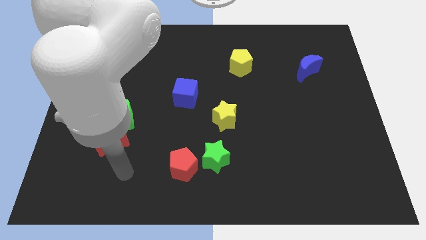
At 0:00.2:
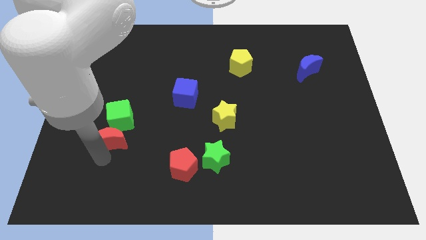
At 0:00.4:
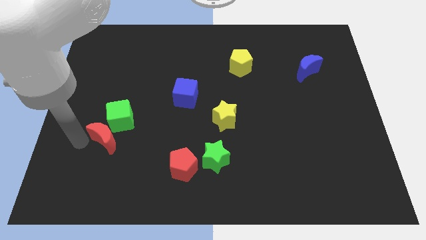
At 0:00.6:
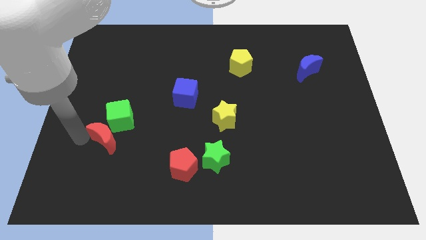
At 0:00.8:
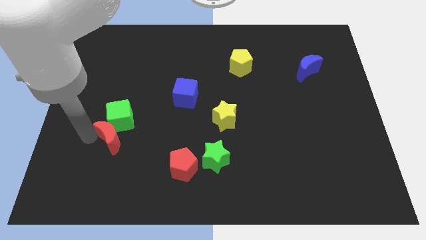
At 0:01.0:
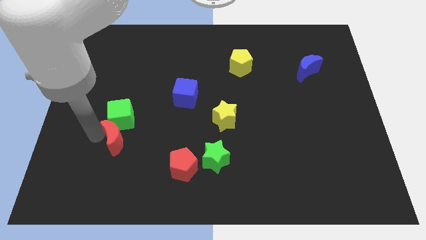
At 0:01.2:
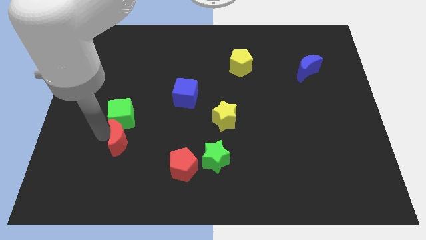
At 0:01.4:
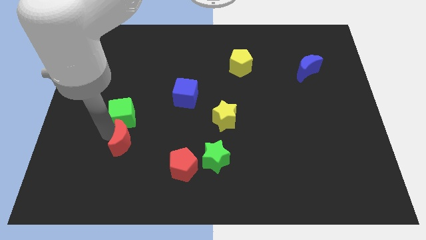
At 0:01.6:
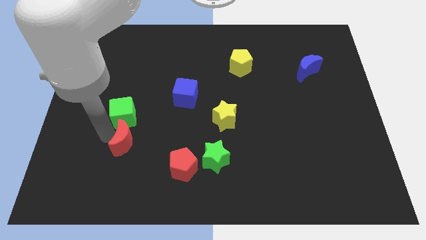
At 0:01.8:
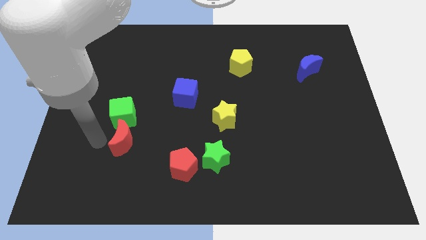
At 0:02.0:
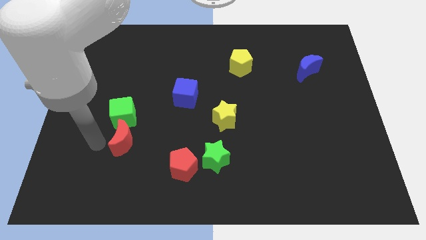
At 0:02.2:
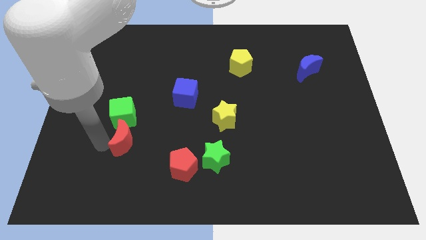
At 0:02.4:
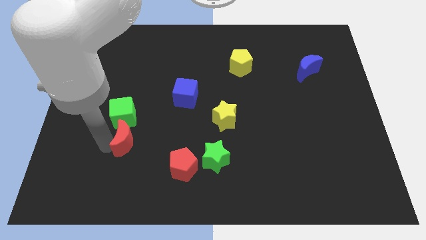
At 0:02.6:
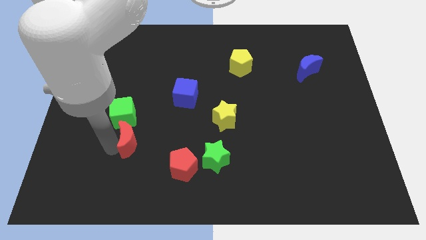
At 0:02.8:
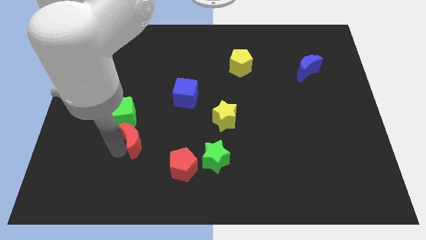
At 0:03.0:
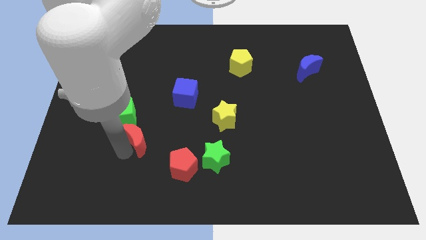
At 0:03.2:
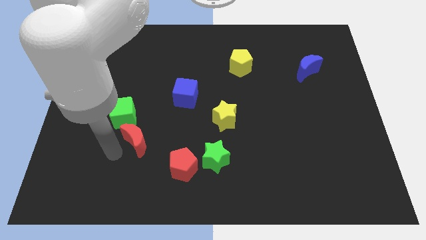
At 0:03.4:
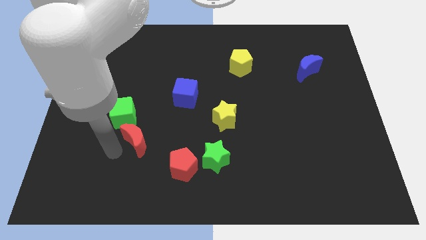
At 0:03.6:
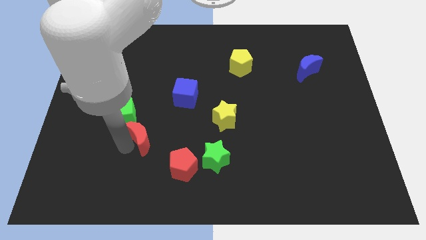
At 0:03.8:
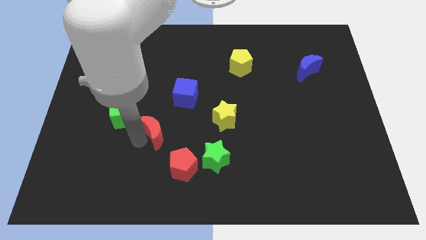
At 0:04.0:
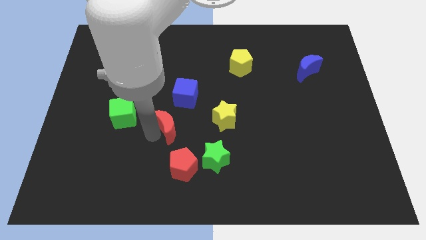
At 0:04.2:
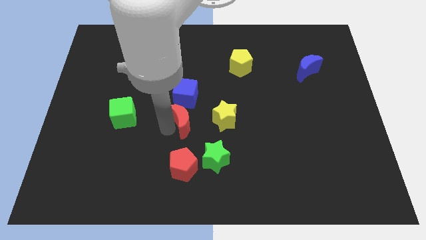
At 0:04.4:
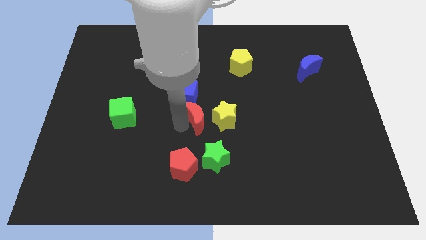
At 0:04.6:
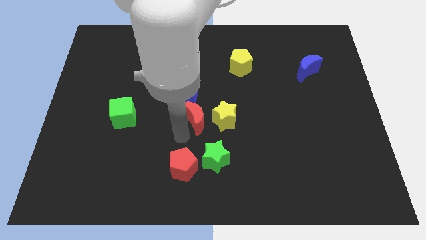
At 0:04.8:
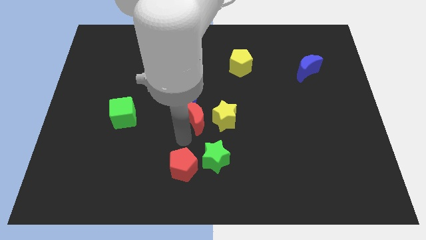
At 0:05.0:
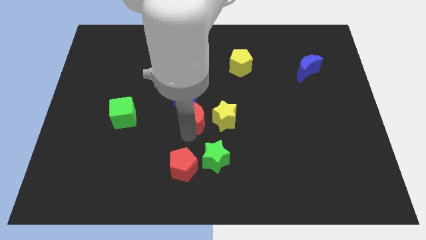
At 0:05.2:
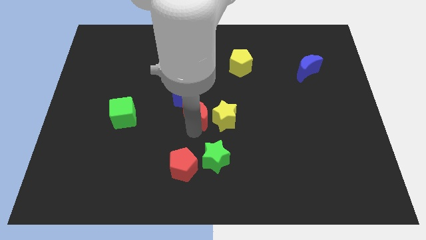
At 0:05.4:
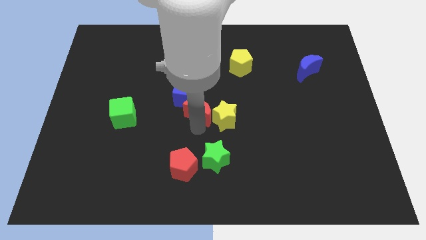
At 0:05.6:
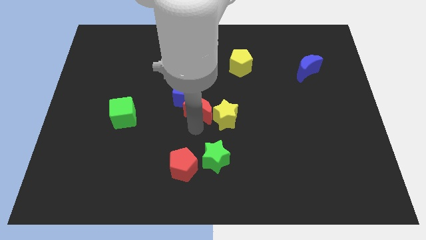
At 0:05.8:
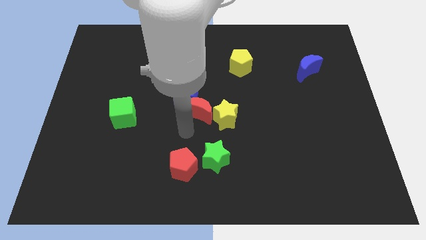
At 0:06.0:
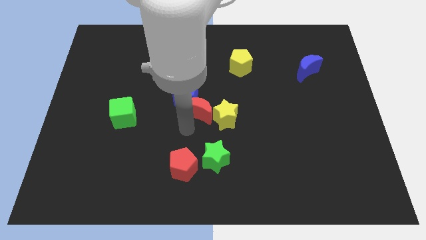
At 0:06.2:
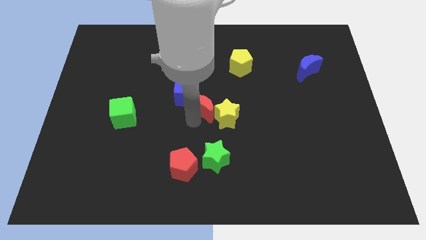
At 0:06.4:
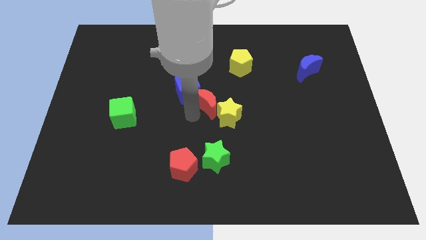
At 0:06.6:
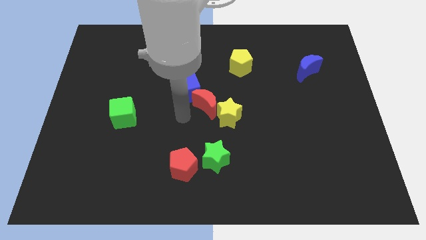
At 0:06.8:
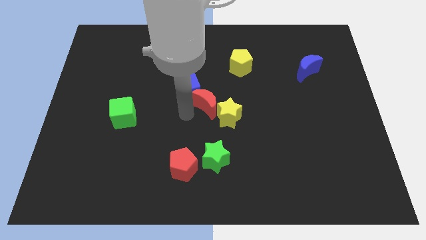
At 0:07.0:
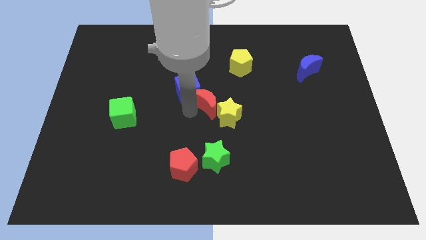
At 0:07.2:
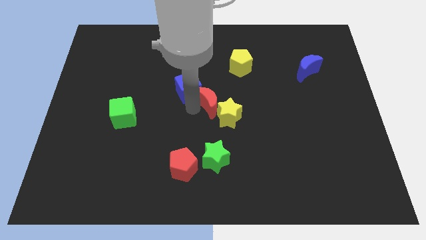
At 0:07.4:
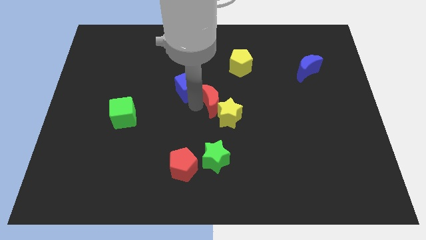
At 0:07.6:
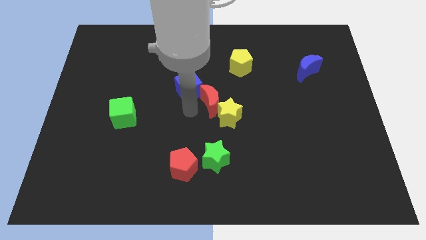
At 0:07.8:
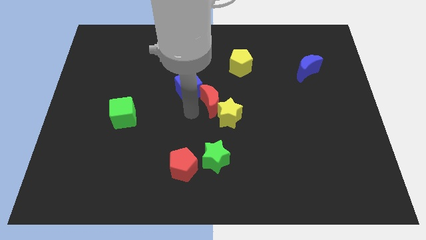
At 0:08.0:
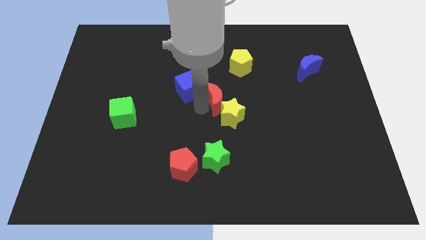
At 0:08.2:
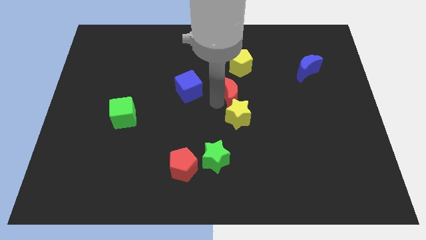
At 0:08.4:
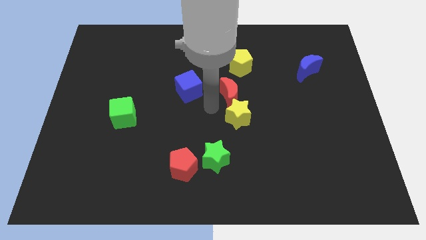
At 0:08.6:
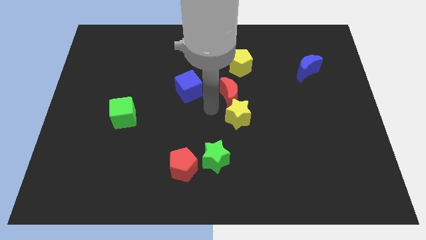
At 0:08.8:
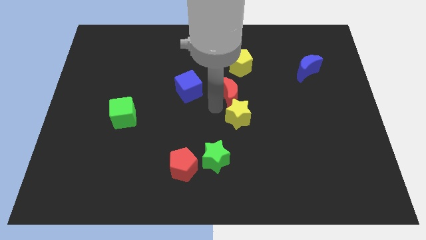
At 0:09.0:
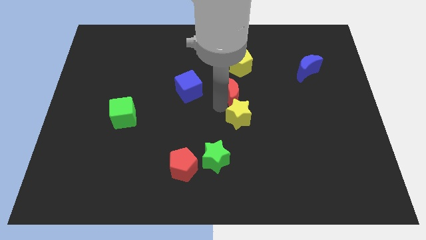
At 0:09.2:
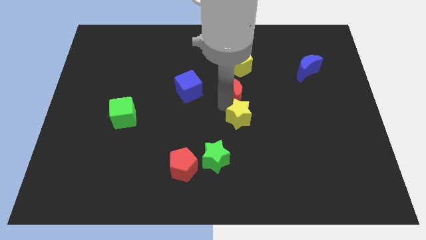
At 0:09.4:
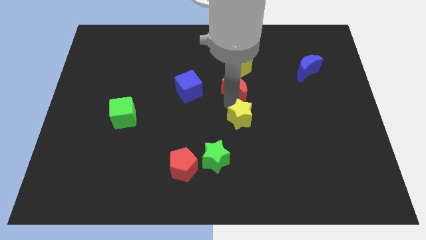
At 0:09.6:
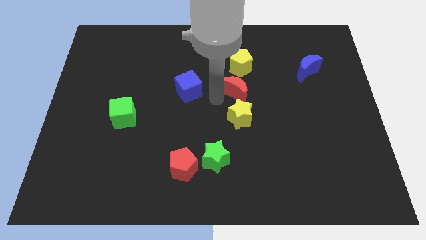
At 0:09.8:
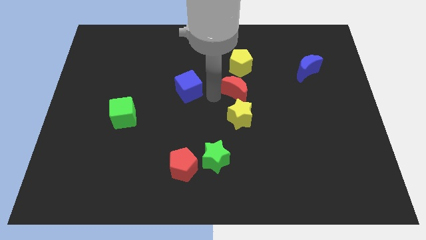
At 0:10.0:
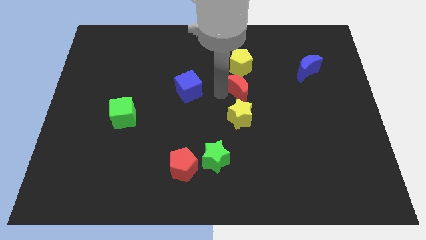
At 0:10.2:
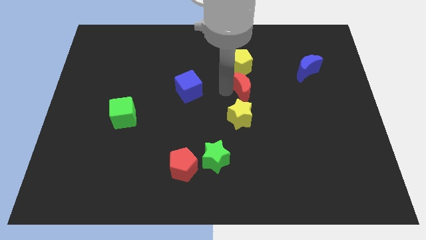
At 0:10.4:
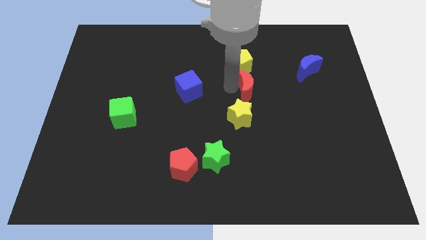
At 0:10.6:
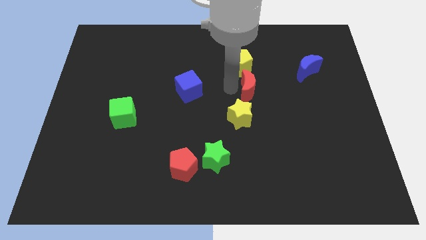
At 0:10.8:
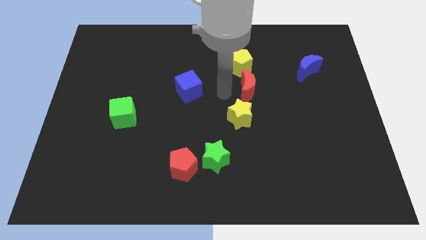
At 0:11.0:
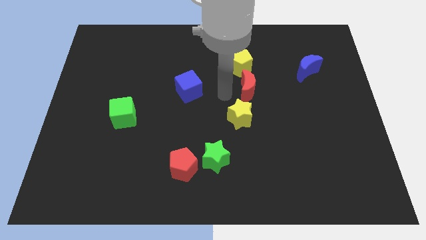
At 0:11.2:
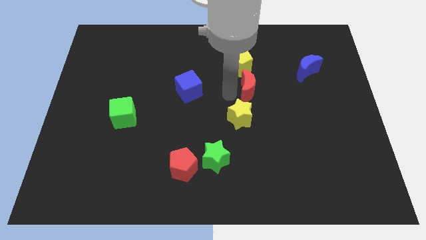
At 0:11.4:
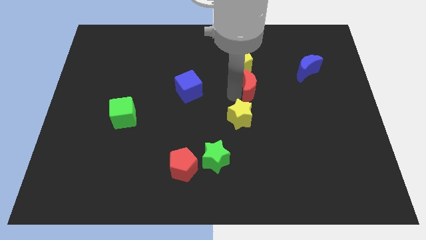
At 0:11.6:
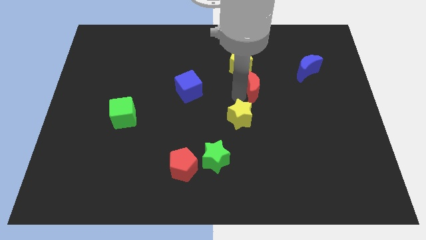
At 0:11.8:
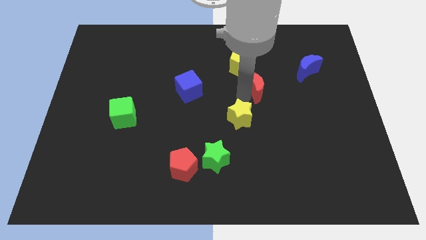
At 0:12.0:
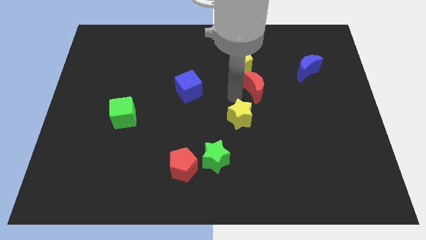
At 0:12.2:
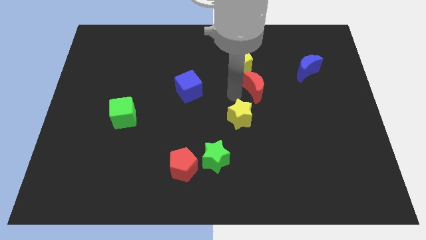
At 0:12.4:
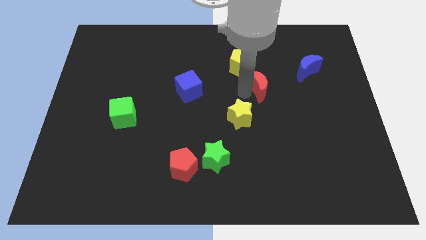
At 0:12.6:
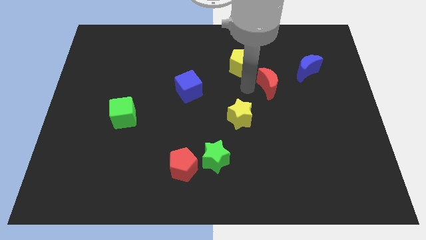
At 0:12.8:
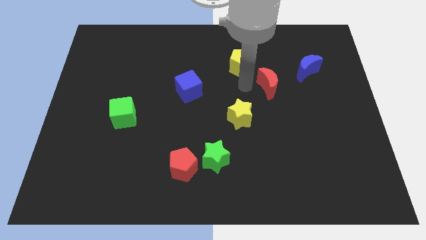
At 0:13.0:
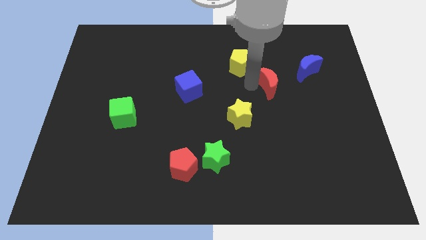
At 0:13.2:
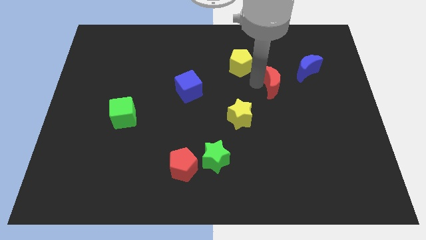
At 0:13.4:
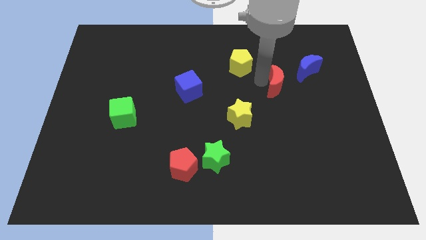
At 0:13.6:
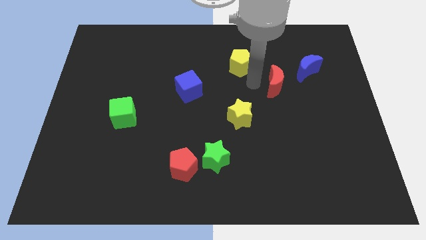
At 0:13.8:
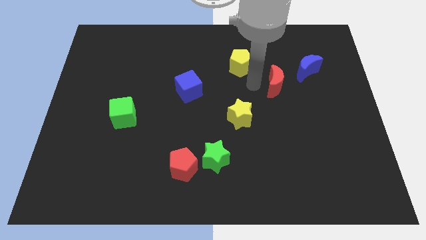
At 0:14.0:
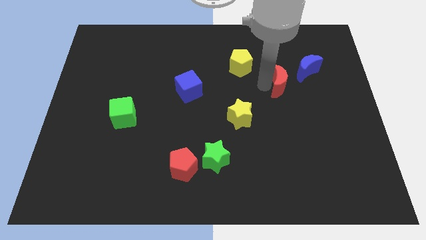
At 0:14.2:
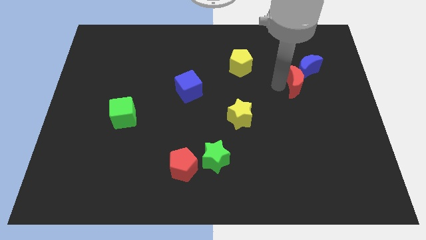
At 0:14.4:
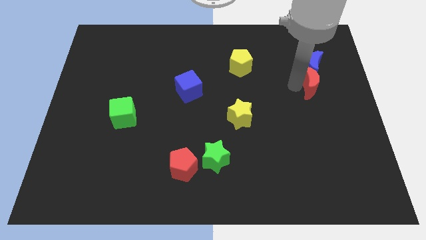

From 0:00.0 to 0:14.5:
move the red moon to the bottom right of the blue moon
